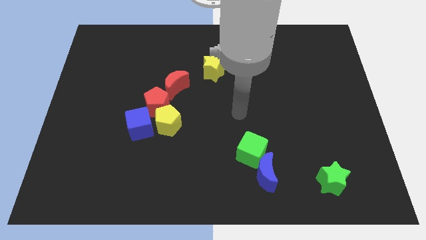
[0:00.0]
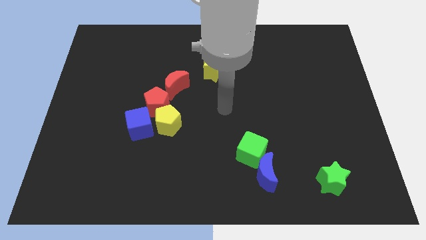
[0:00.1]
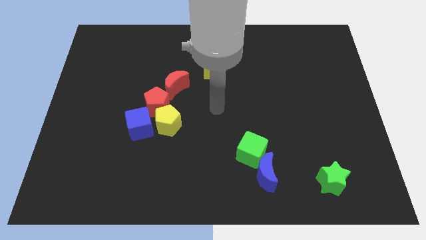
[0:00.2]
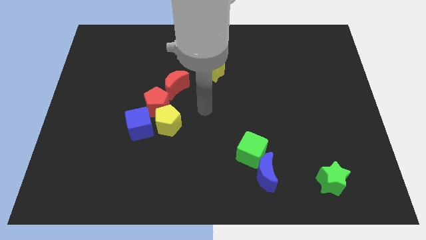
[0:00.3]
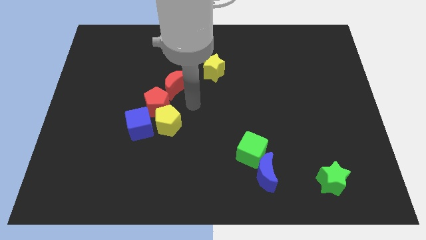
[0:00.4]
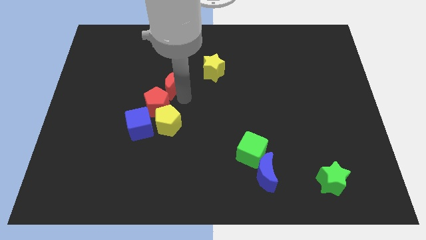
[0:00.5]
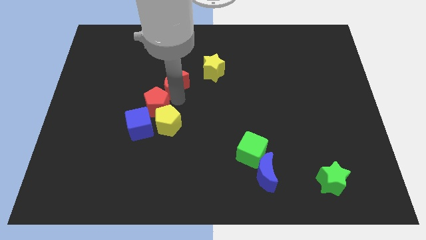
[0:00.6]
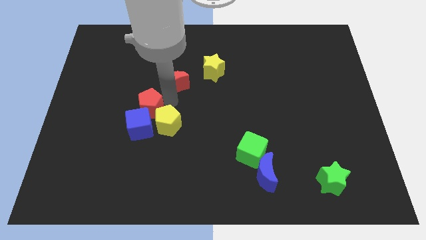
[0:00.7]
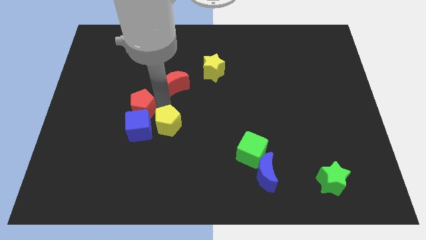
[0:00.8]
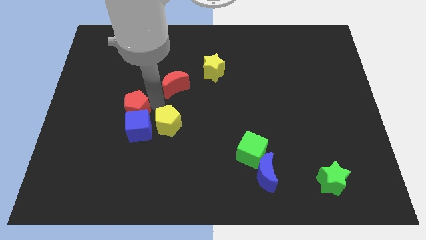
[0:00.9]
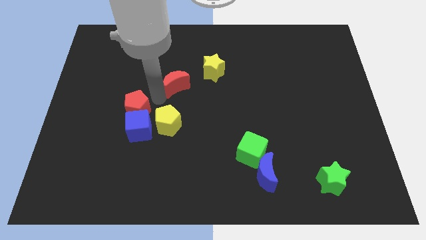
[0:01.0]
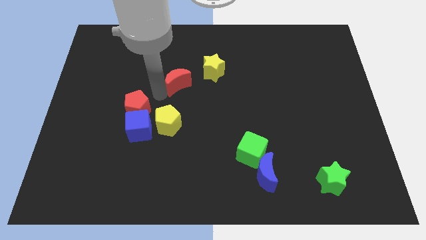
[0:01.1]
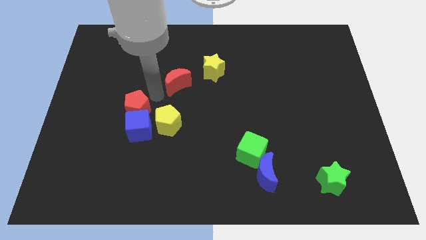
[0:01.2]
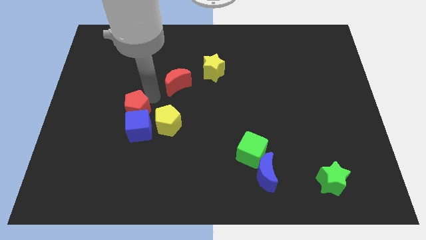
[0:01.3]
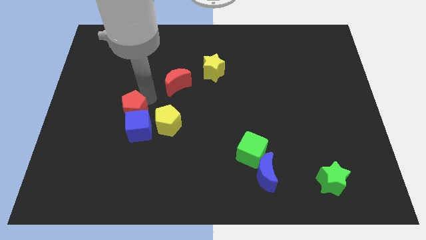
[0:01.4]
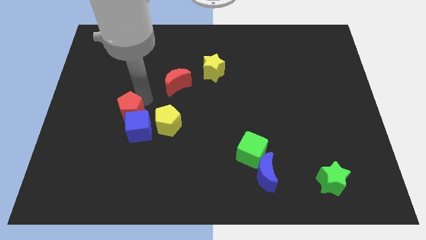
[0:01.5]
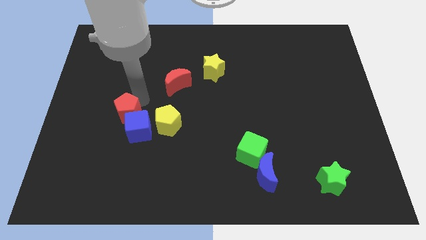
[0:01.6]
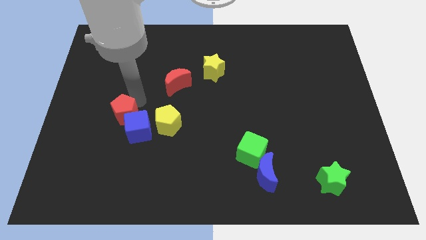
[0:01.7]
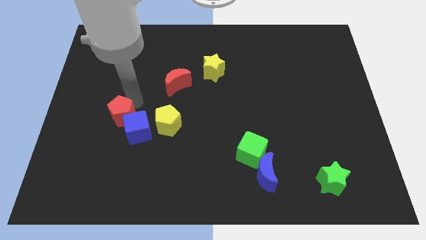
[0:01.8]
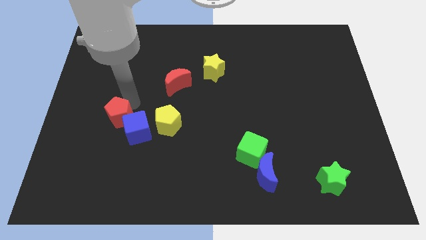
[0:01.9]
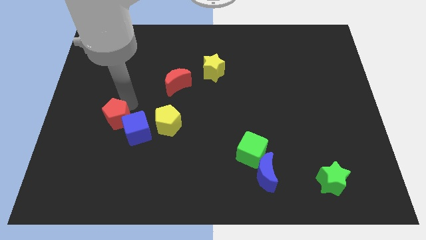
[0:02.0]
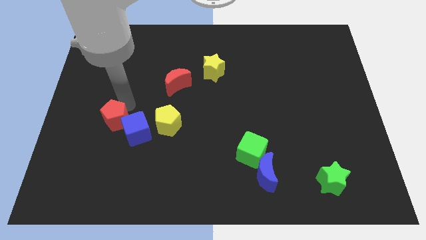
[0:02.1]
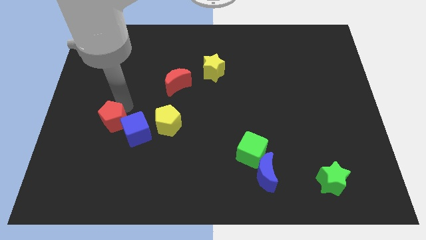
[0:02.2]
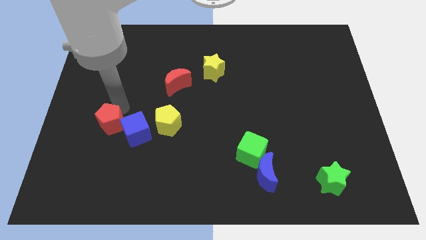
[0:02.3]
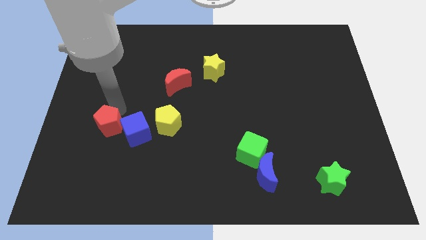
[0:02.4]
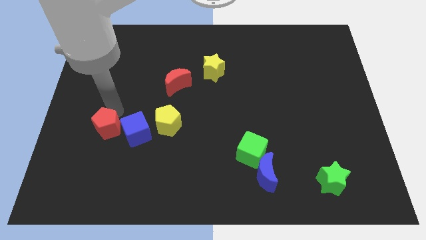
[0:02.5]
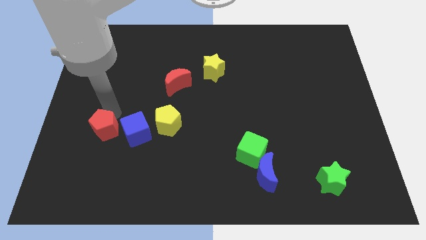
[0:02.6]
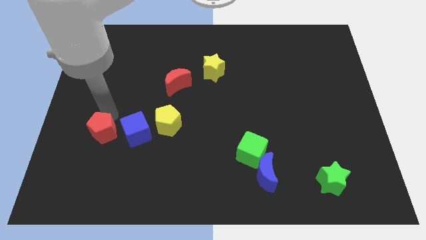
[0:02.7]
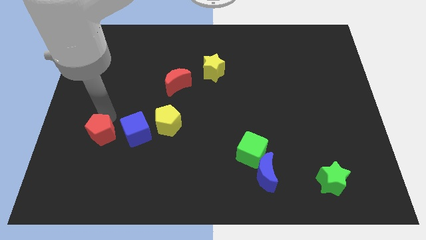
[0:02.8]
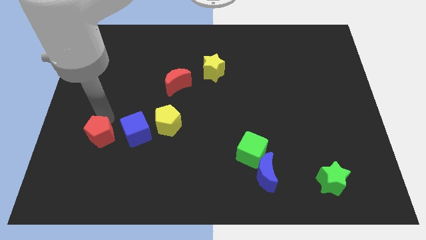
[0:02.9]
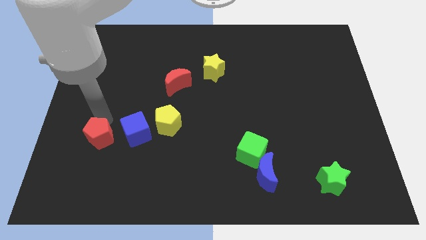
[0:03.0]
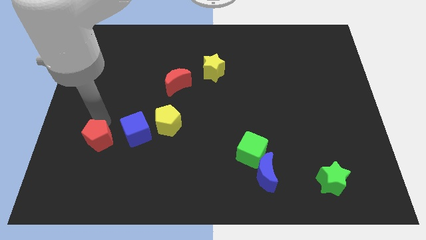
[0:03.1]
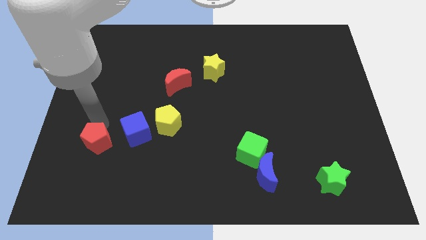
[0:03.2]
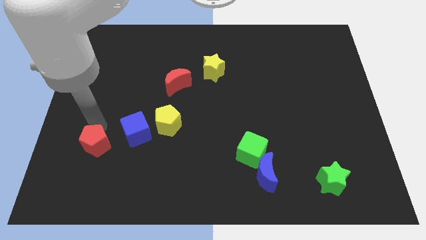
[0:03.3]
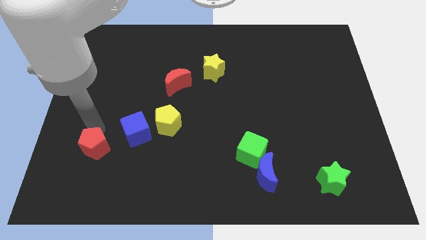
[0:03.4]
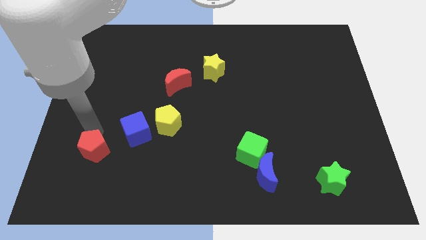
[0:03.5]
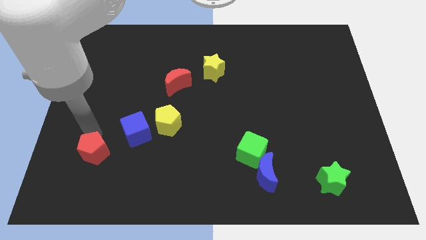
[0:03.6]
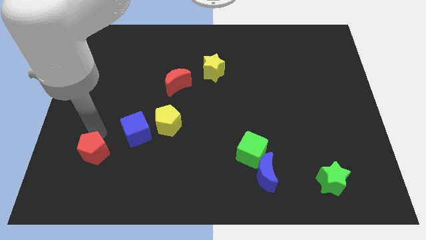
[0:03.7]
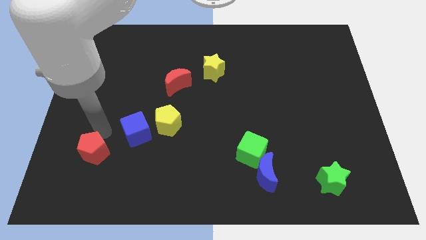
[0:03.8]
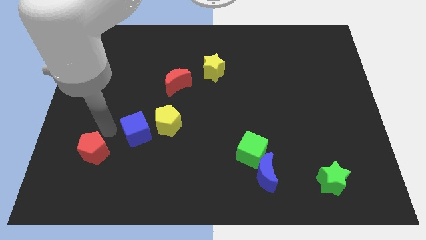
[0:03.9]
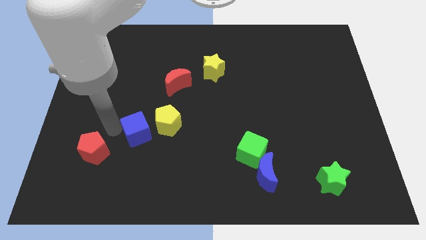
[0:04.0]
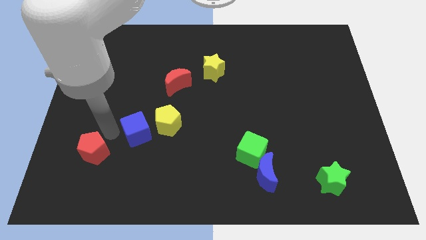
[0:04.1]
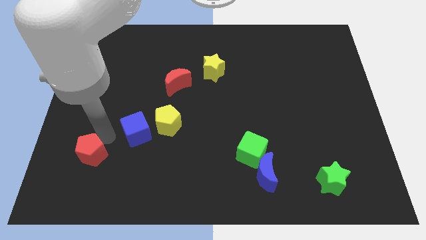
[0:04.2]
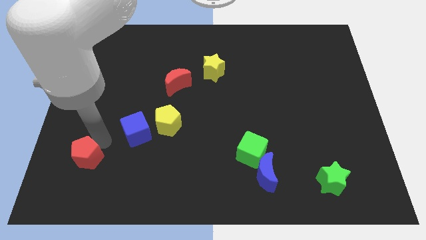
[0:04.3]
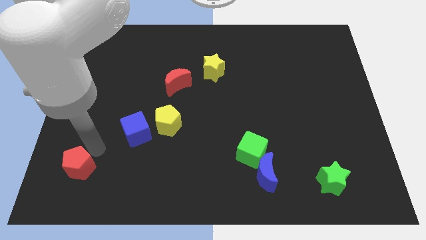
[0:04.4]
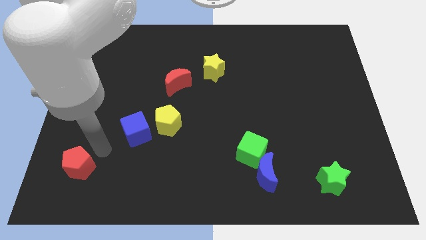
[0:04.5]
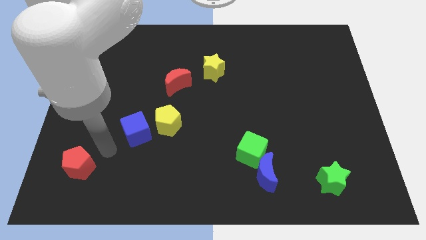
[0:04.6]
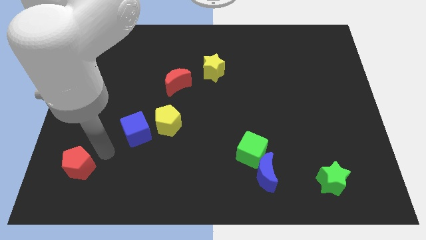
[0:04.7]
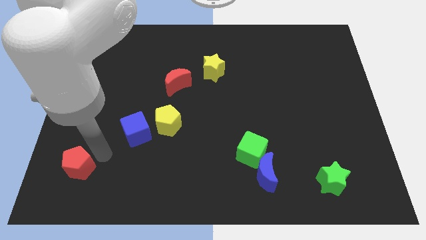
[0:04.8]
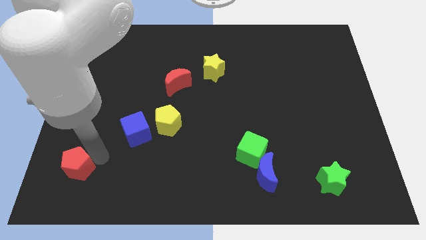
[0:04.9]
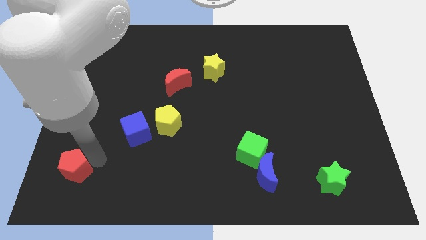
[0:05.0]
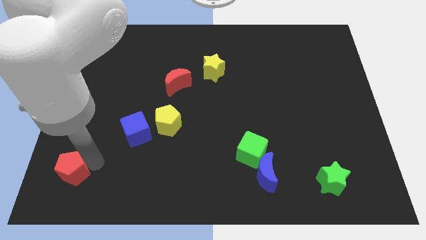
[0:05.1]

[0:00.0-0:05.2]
slide the red pentagon to the bottom left corner

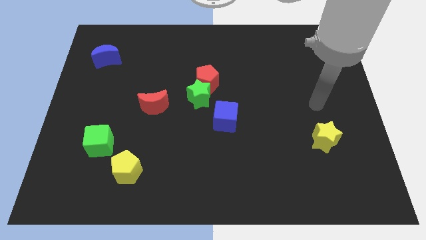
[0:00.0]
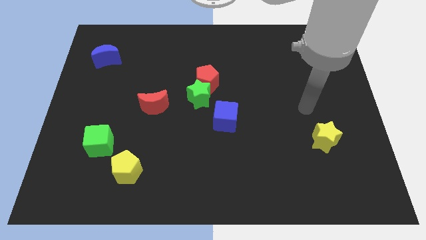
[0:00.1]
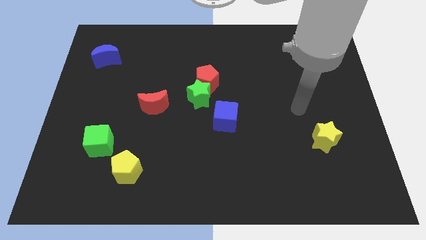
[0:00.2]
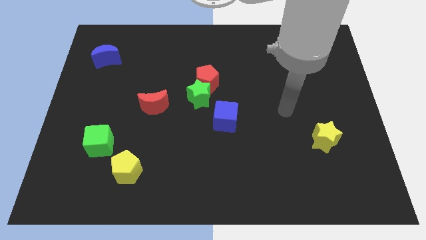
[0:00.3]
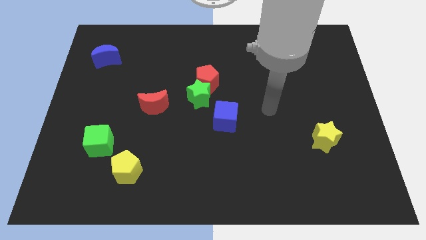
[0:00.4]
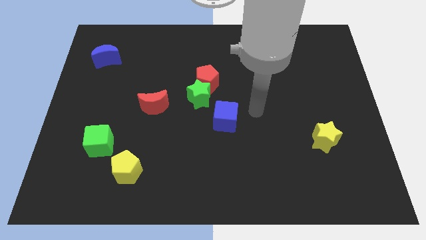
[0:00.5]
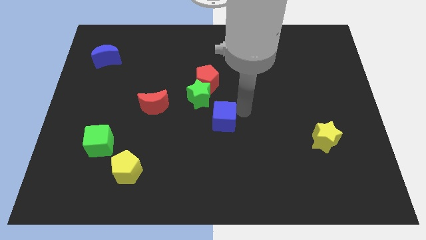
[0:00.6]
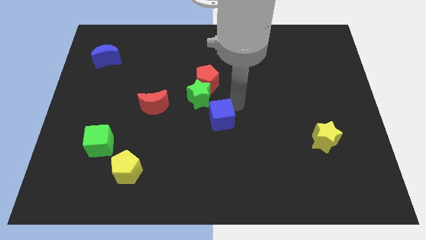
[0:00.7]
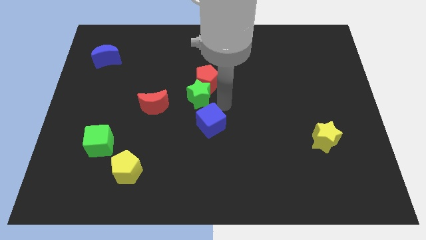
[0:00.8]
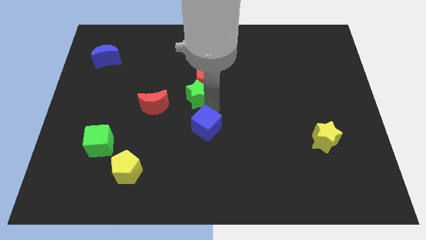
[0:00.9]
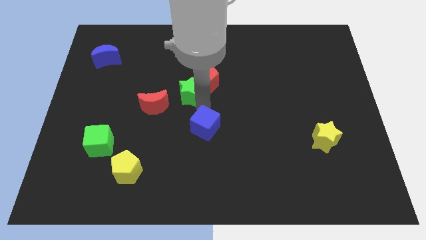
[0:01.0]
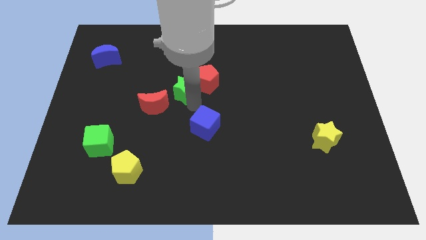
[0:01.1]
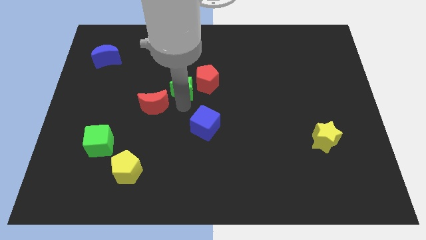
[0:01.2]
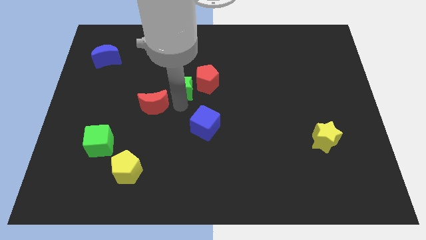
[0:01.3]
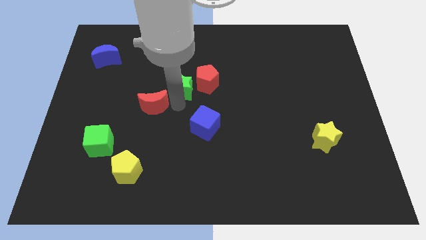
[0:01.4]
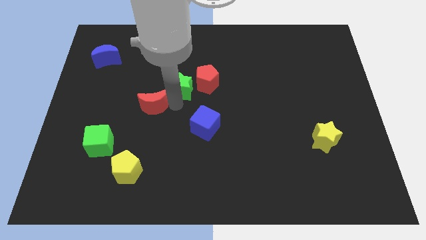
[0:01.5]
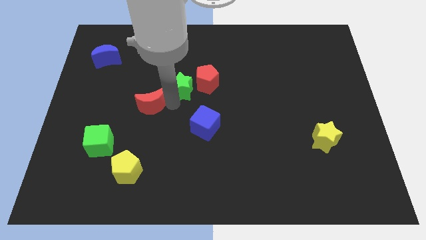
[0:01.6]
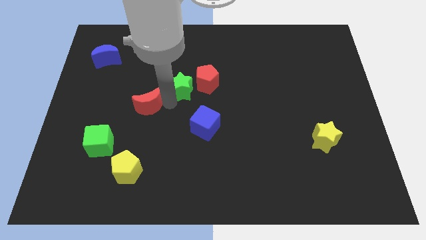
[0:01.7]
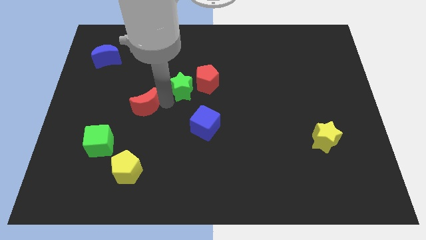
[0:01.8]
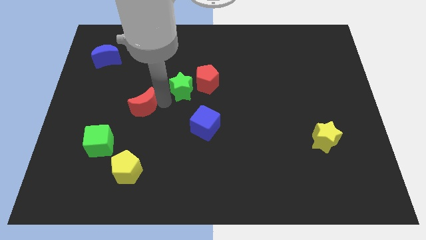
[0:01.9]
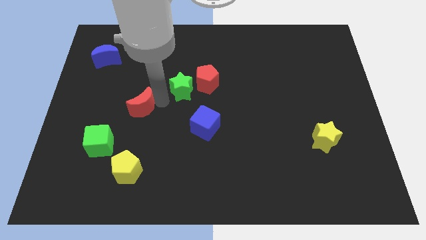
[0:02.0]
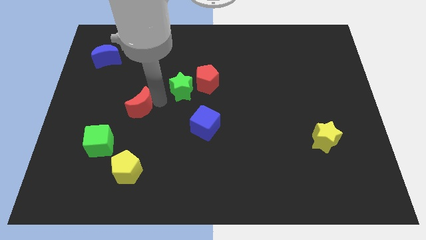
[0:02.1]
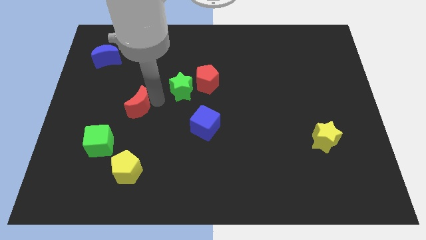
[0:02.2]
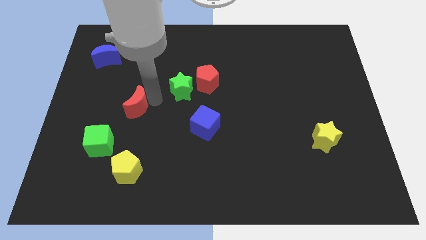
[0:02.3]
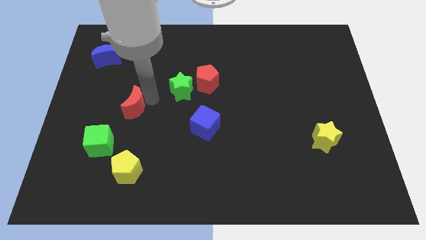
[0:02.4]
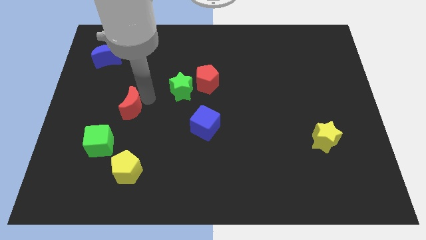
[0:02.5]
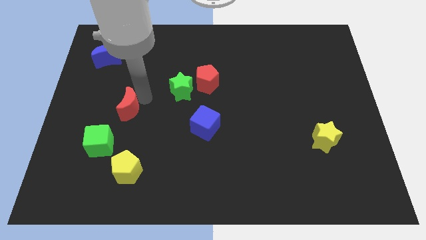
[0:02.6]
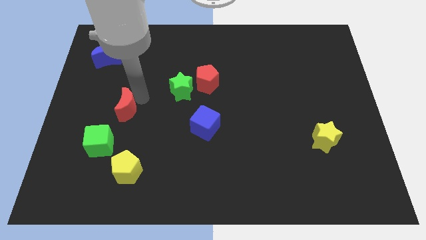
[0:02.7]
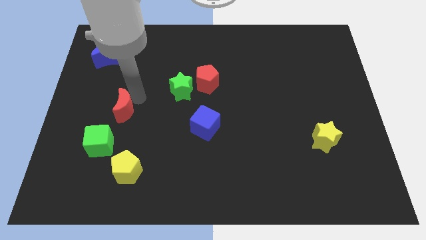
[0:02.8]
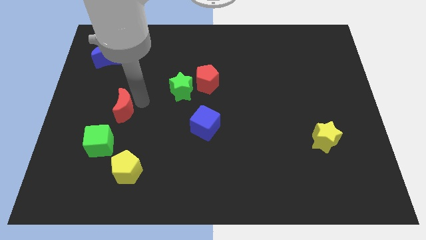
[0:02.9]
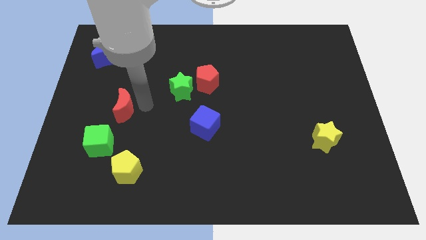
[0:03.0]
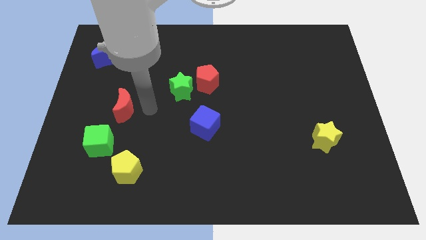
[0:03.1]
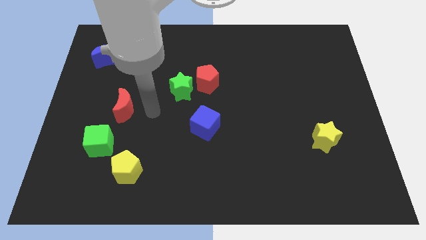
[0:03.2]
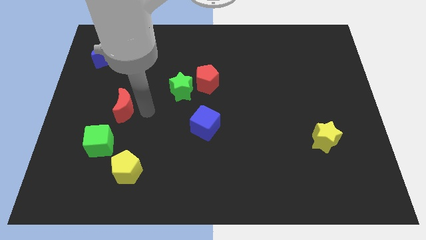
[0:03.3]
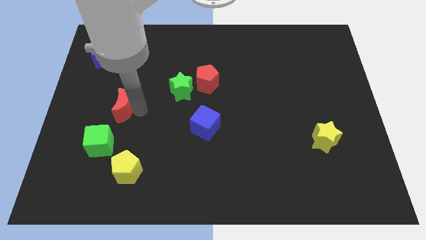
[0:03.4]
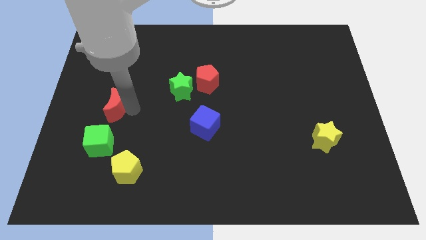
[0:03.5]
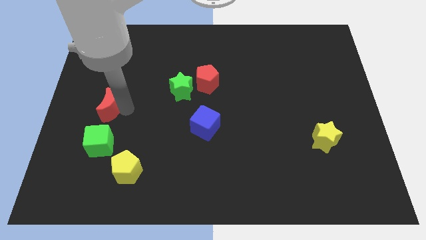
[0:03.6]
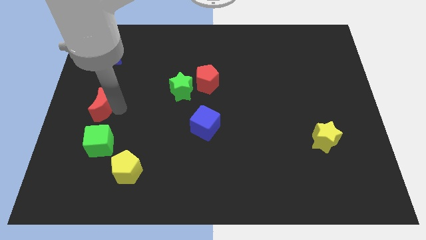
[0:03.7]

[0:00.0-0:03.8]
put the red moon to the left side
